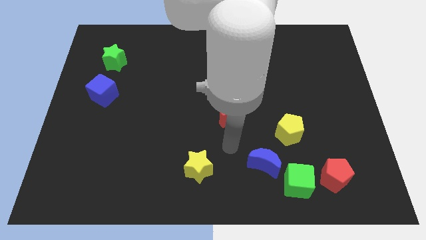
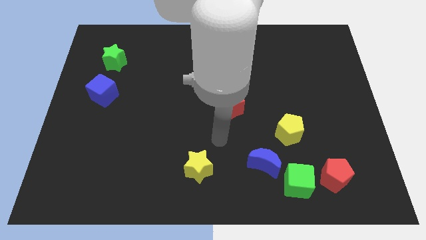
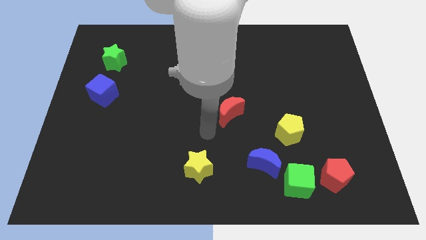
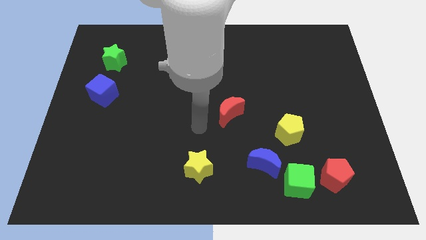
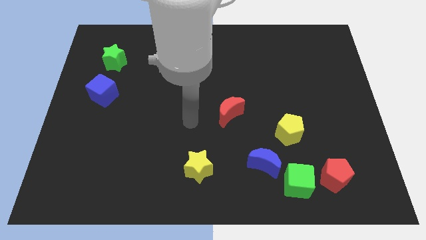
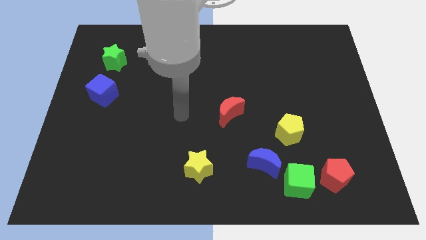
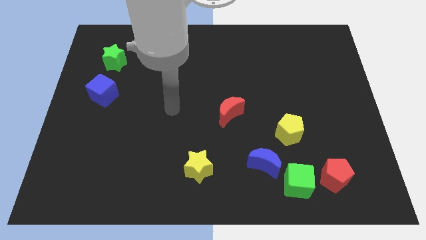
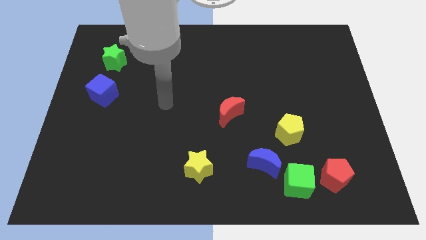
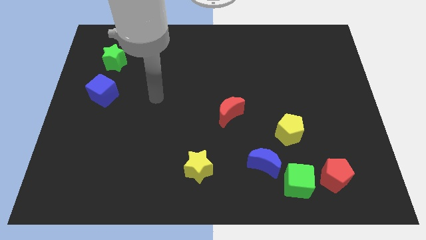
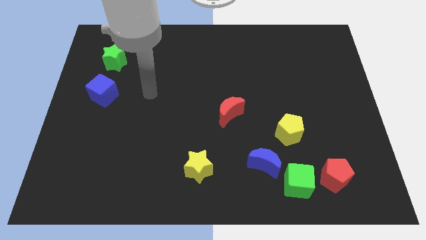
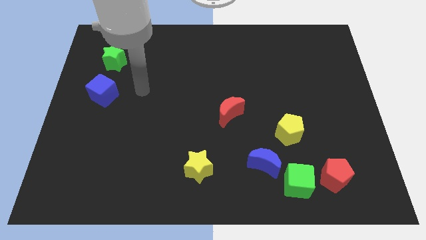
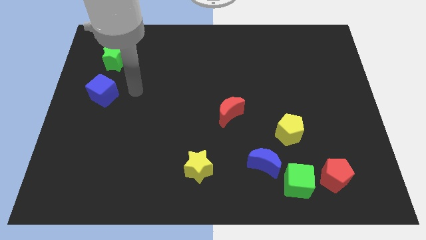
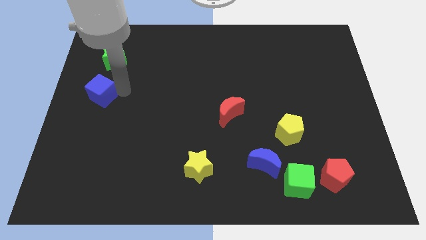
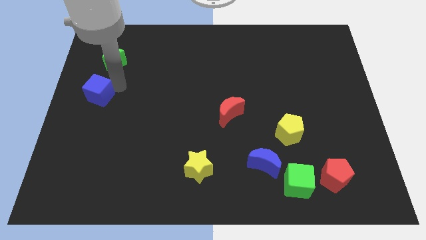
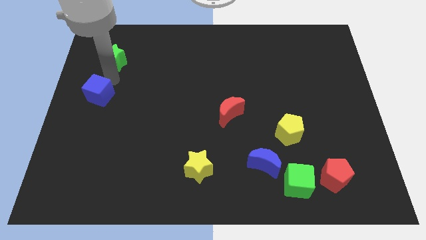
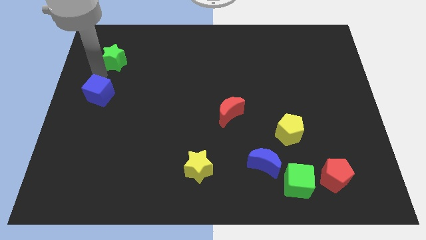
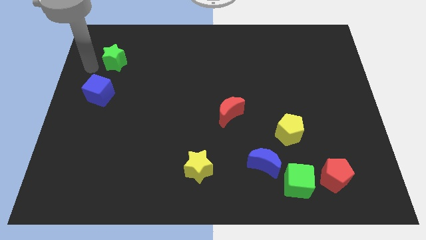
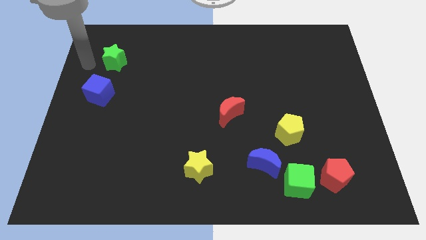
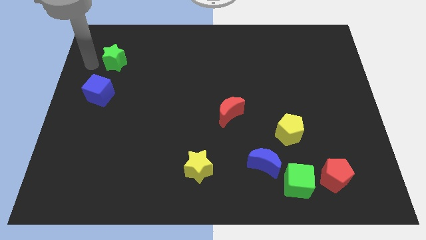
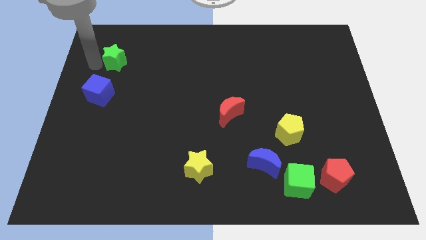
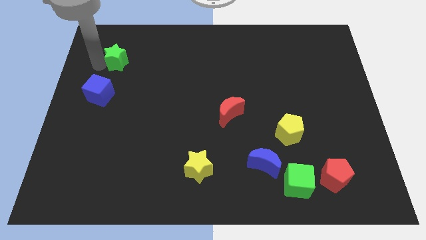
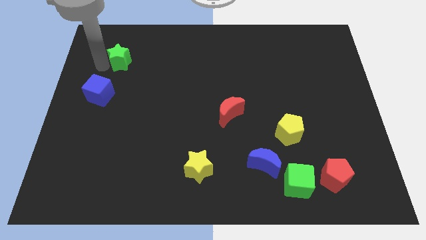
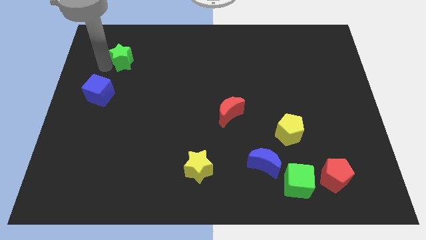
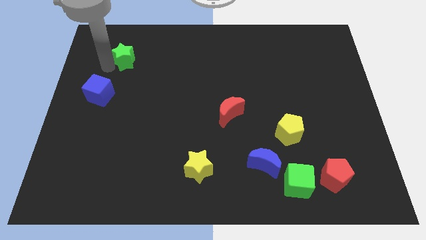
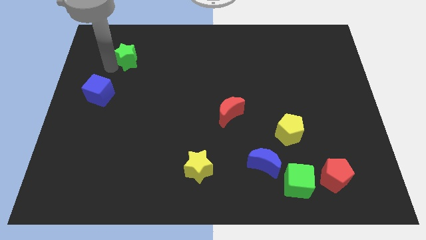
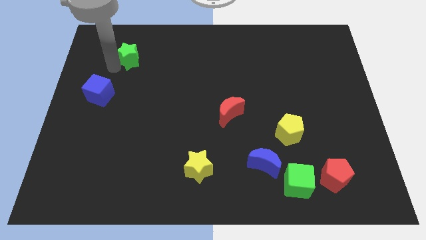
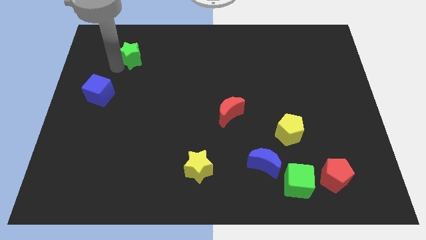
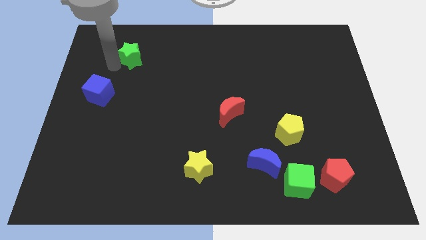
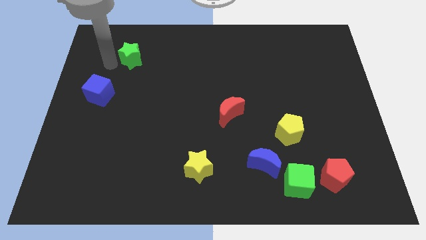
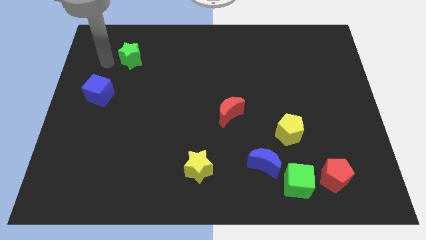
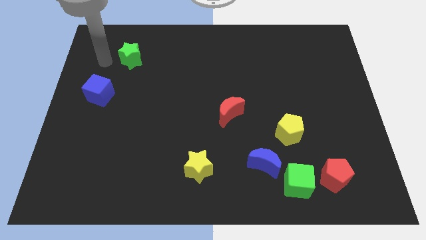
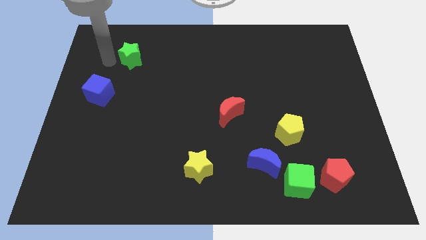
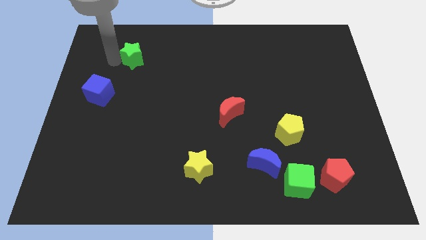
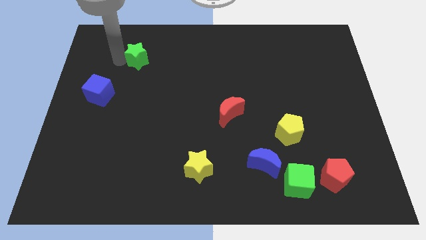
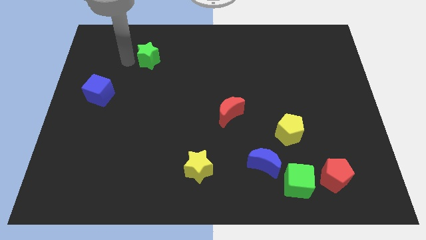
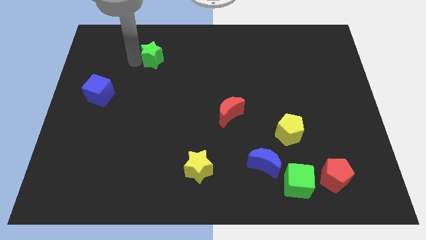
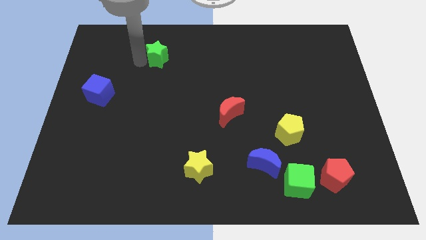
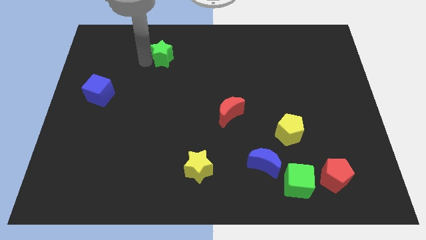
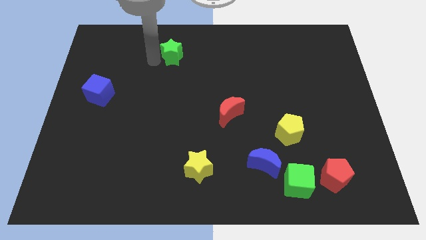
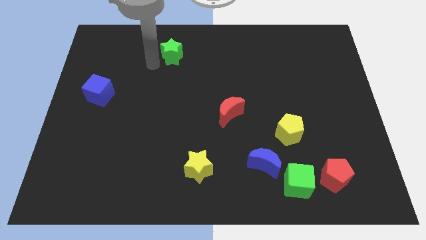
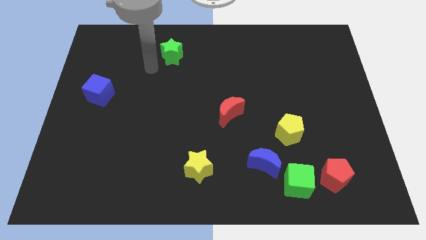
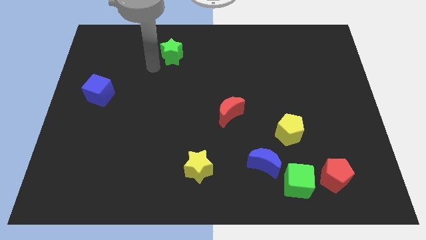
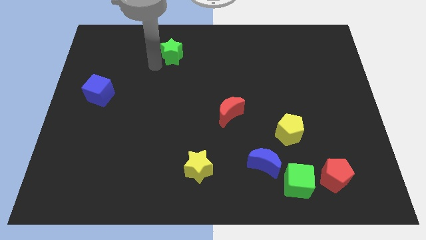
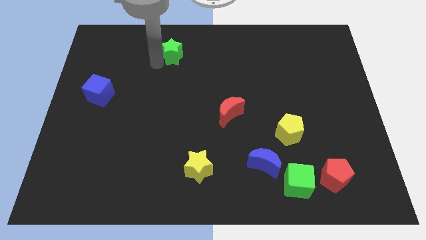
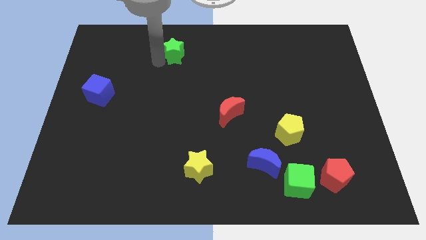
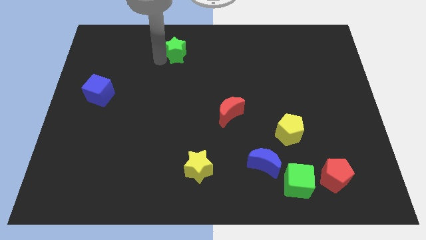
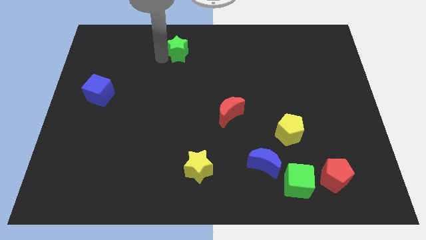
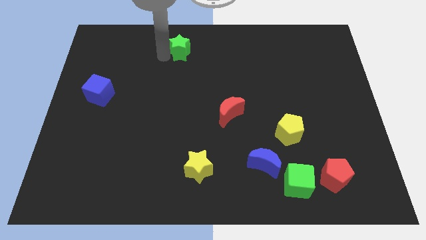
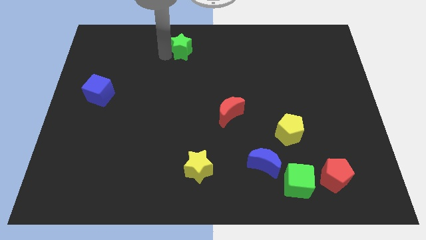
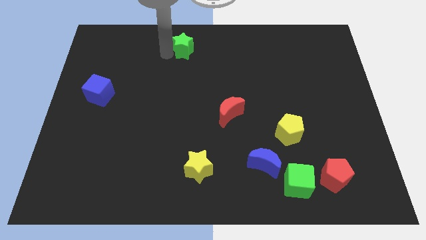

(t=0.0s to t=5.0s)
move the green star to the towards your base

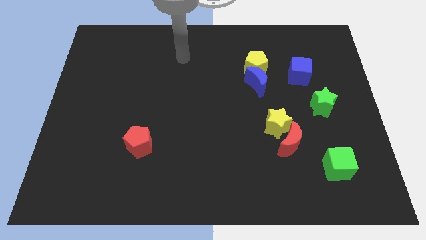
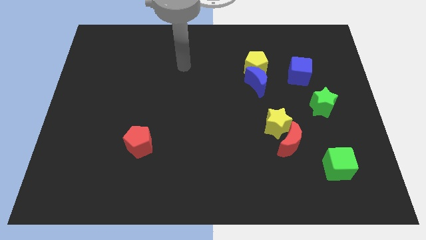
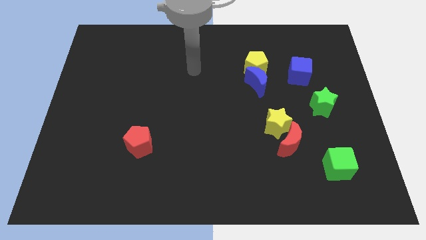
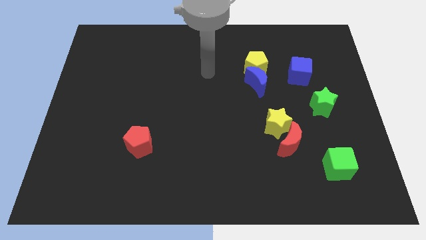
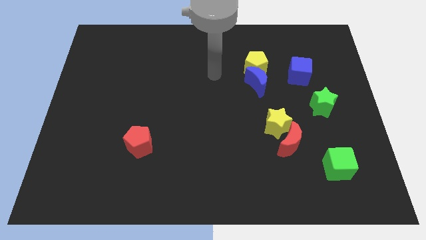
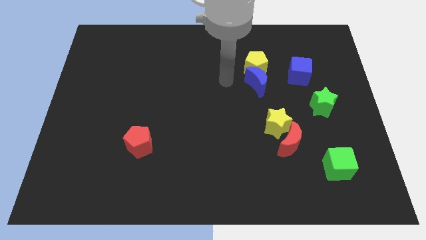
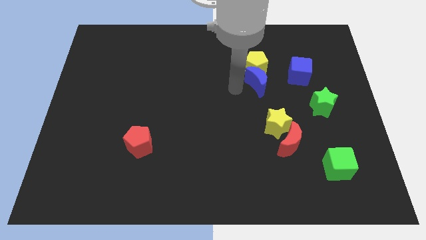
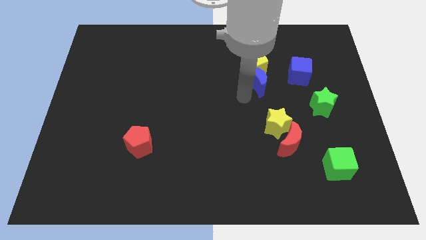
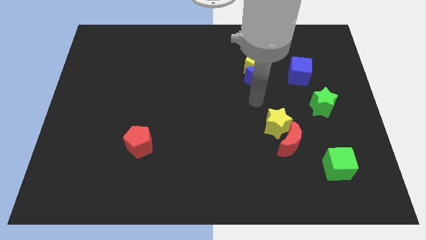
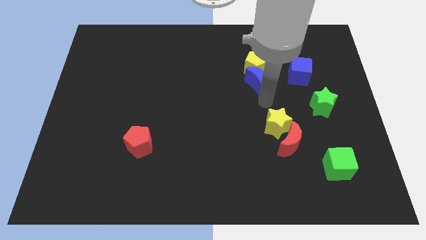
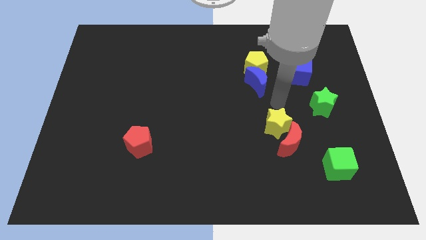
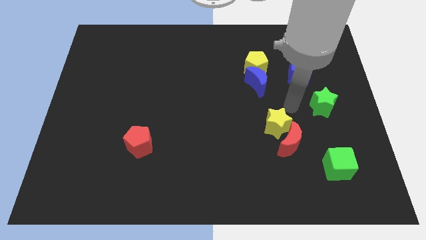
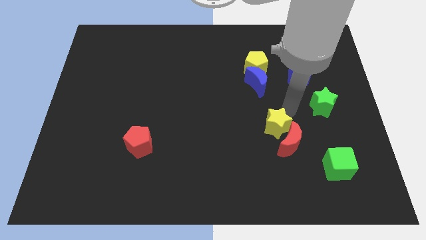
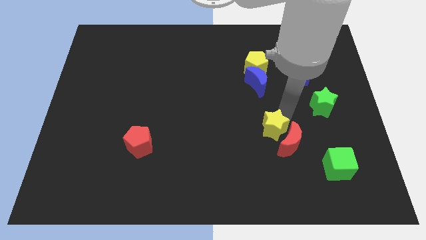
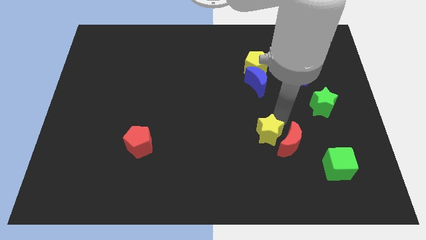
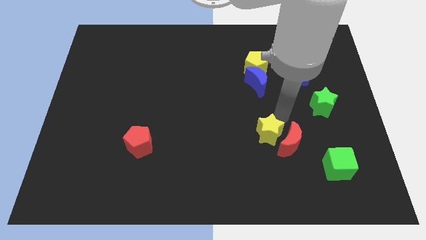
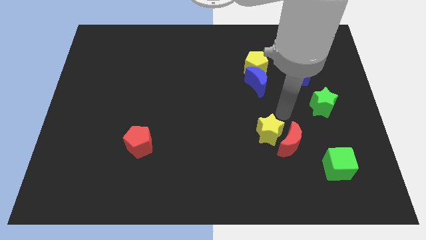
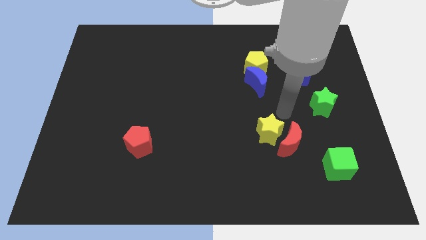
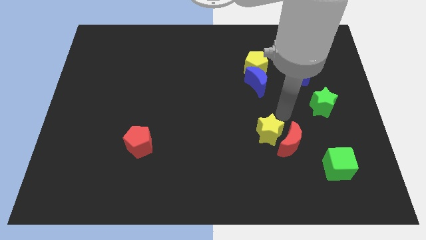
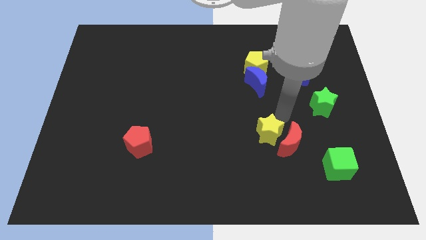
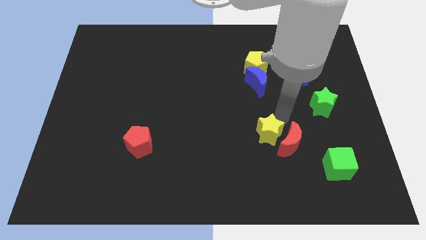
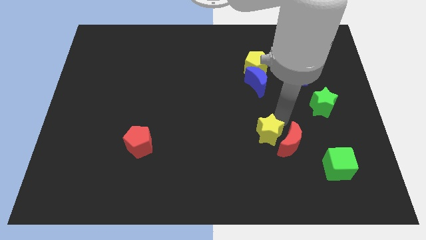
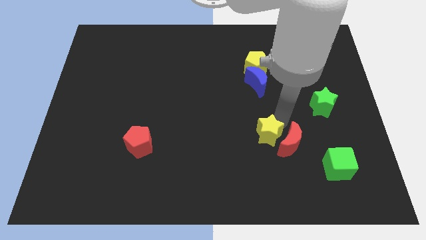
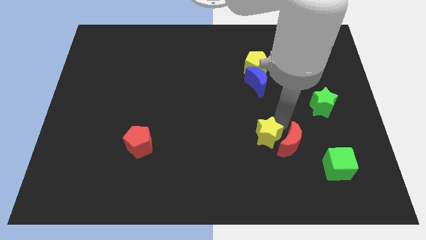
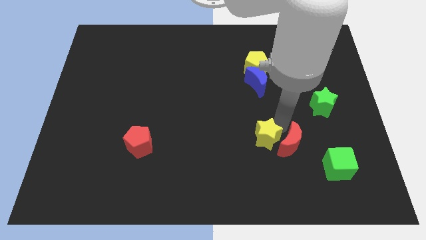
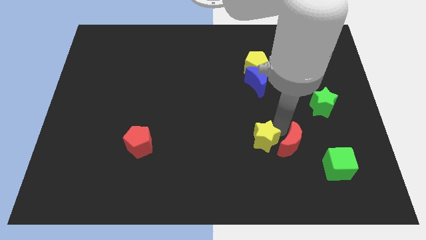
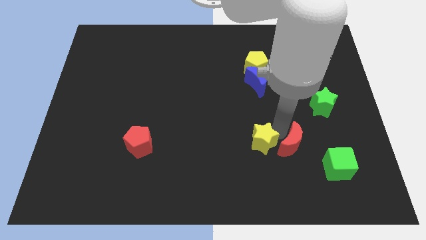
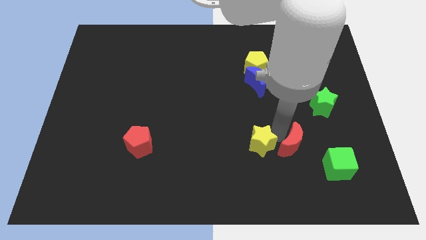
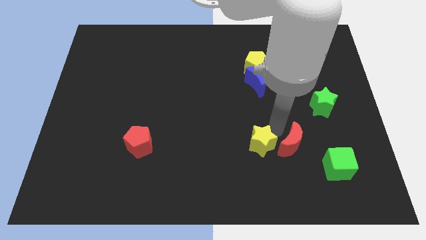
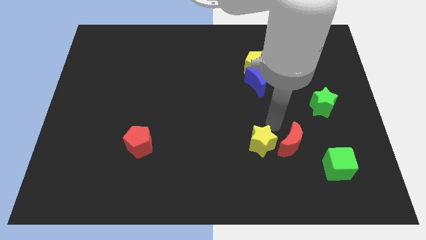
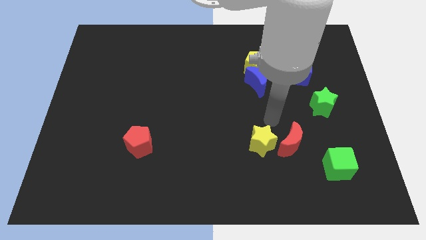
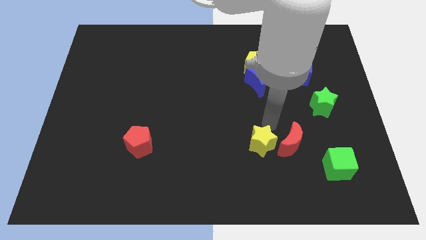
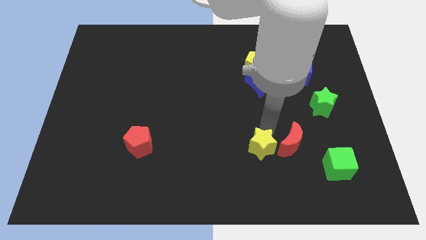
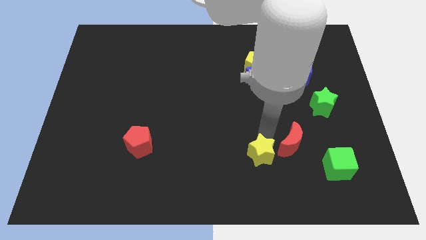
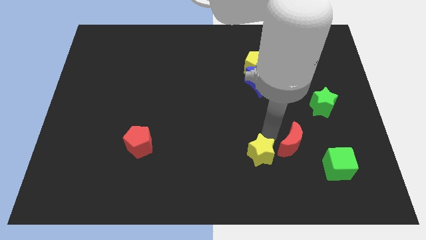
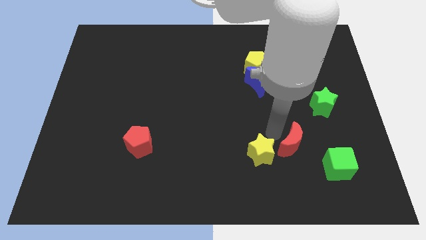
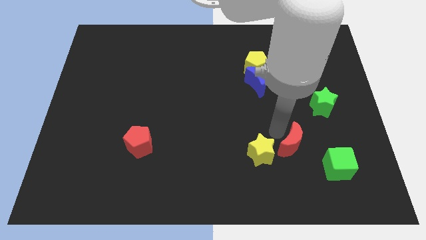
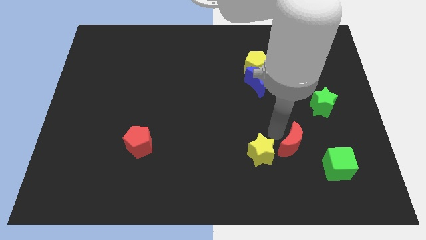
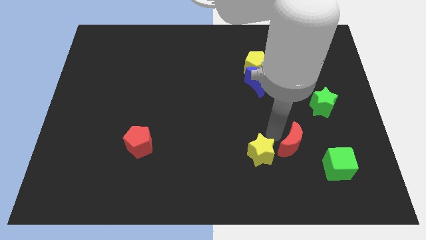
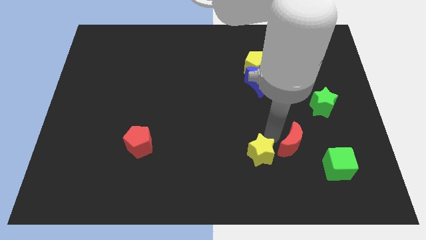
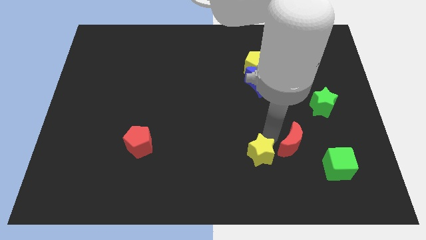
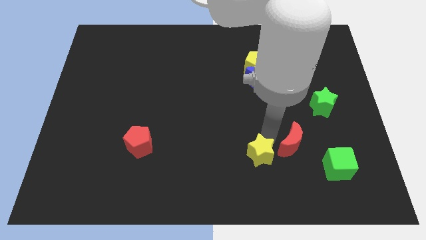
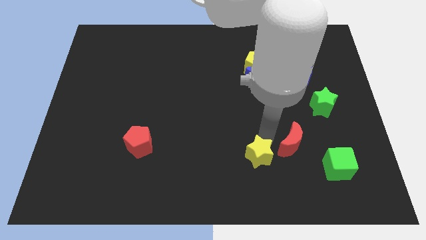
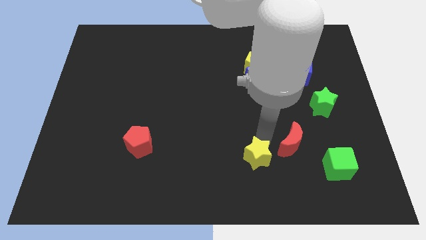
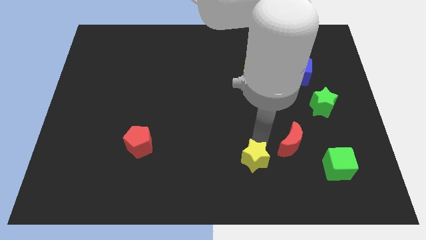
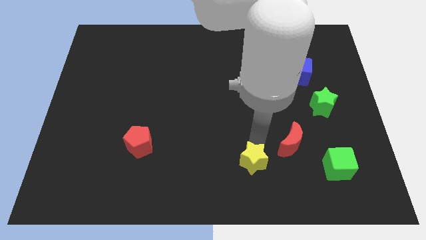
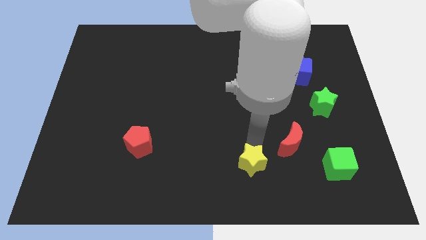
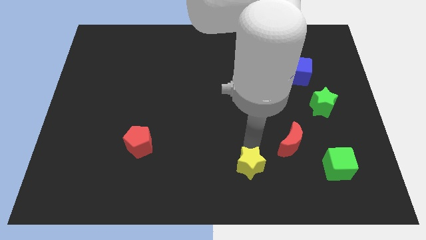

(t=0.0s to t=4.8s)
move the yellow star to the bottom side
